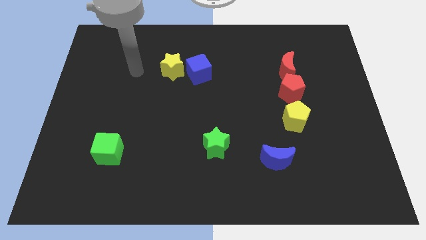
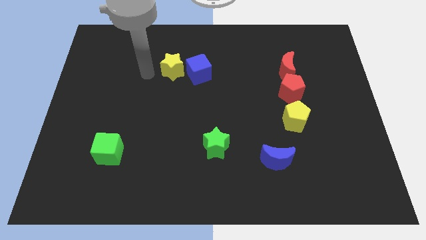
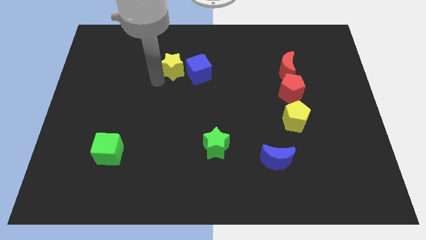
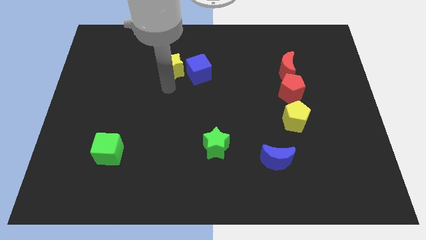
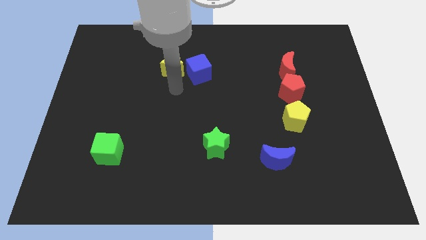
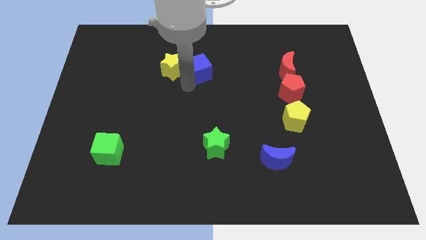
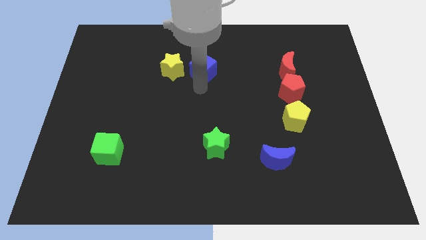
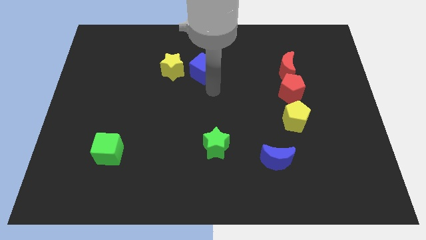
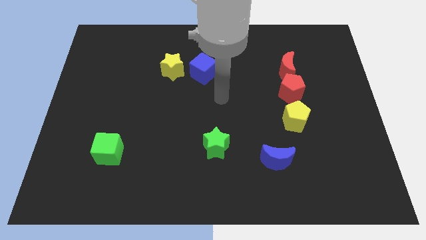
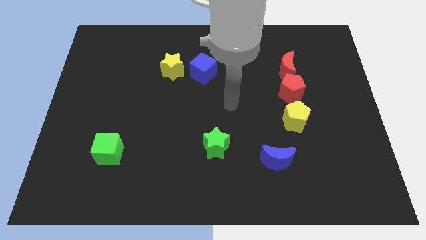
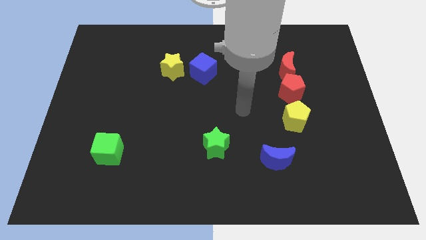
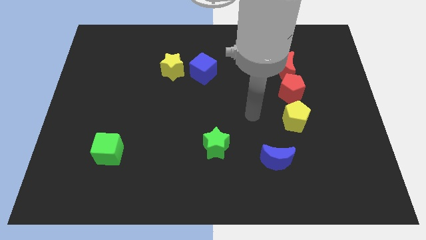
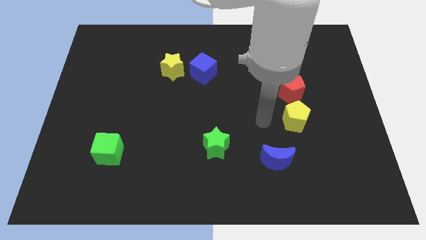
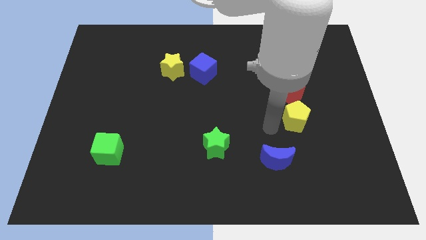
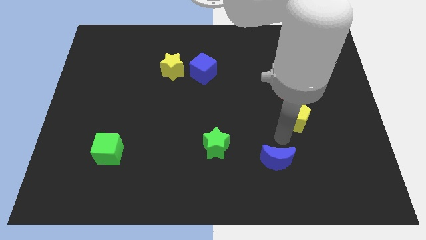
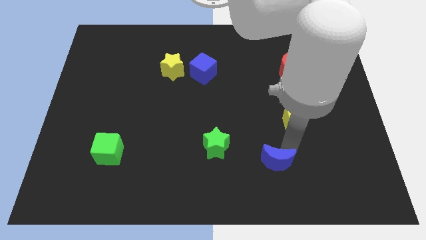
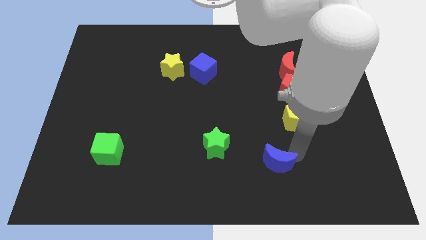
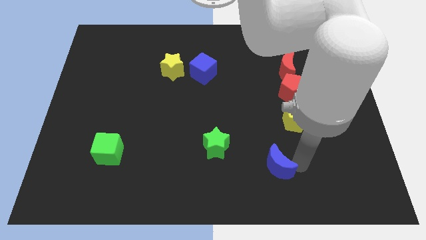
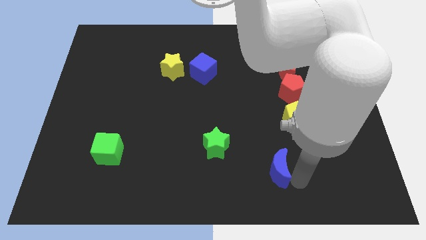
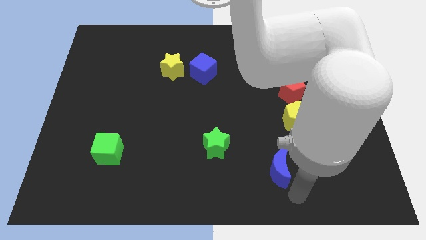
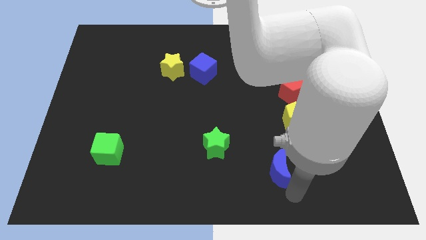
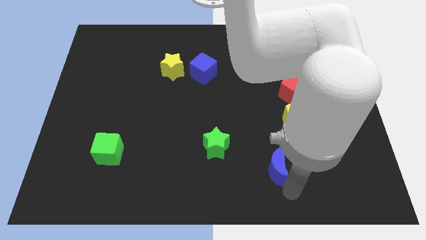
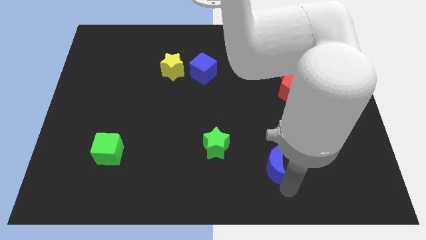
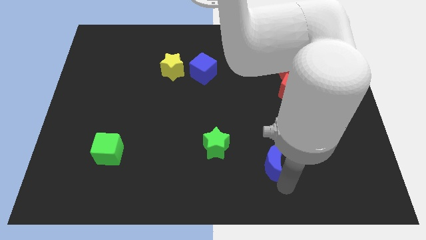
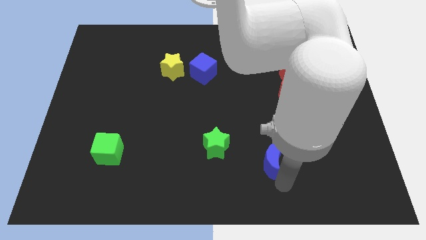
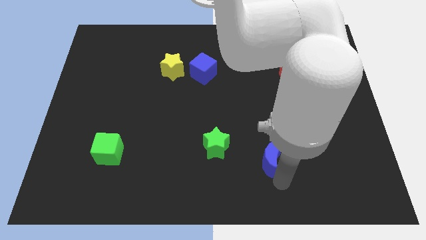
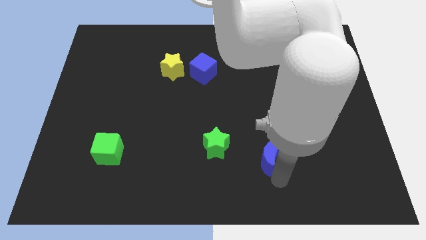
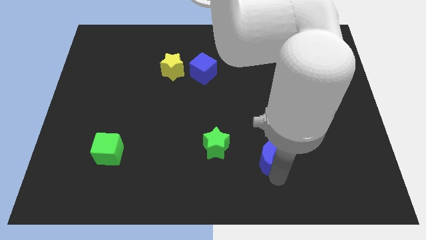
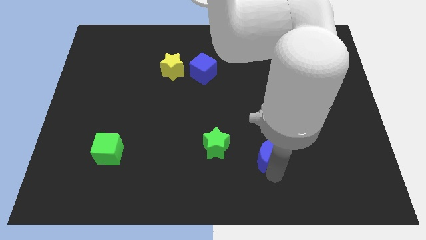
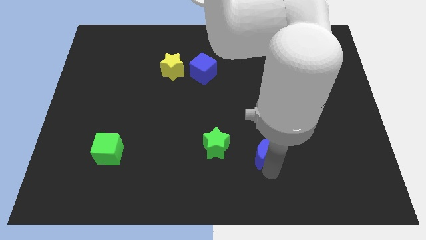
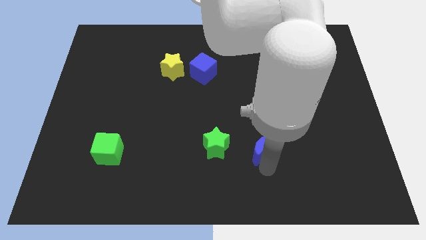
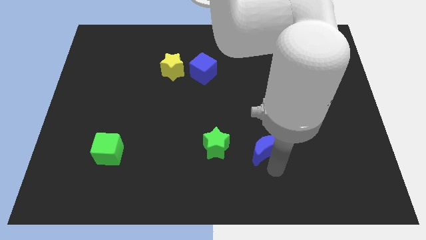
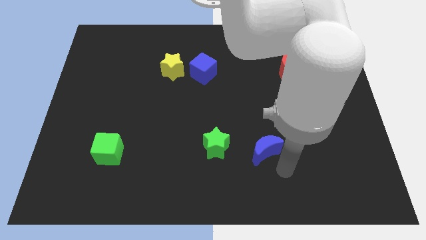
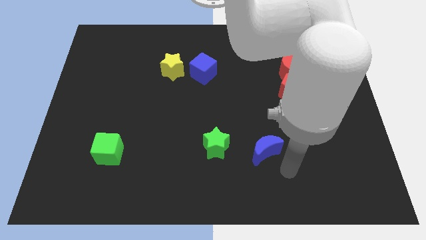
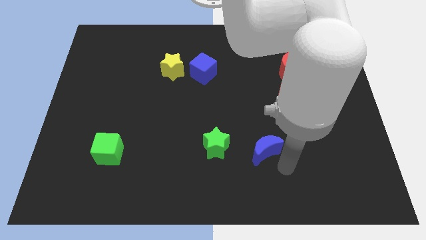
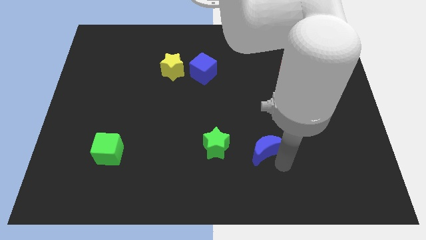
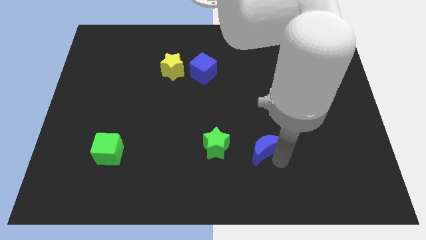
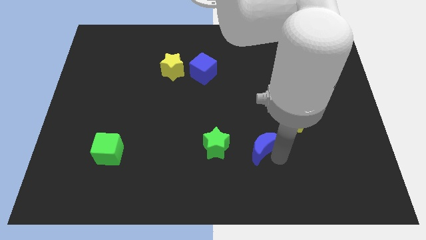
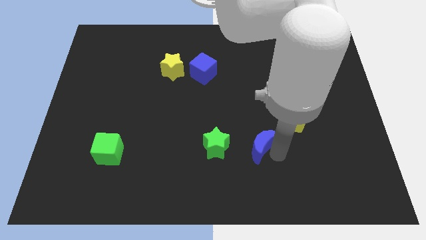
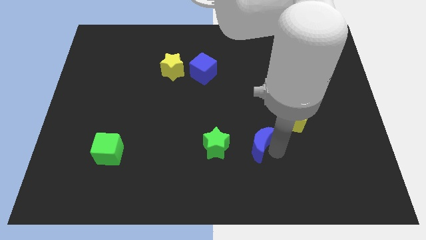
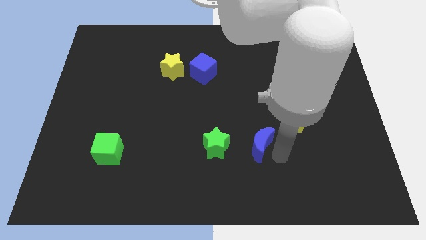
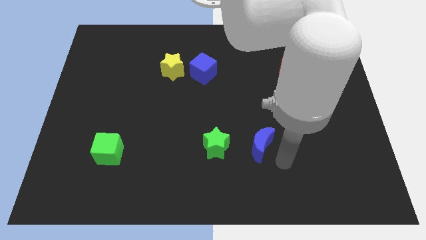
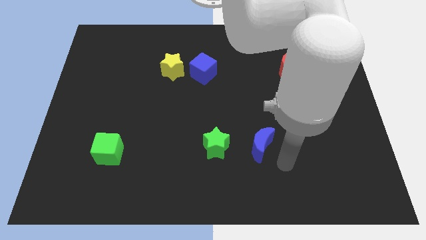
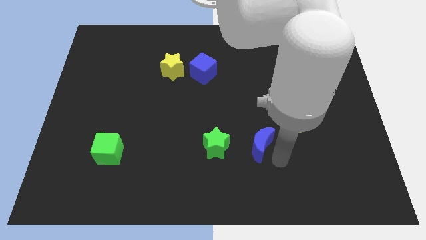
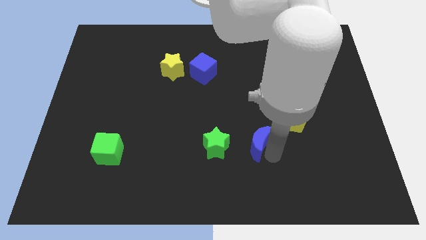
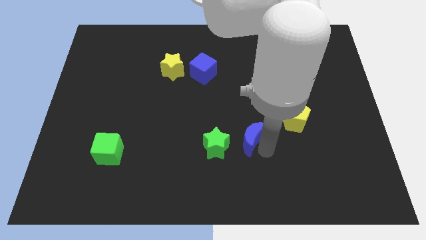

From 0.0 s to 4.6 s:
slightly move the blue moon upwards and left diagonally

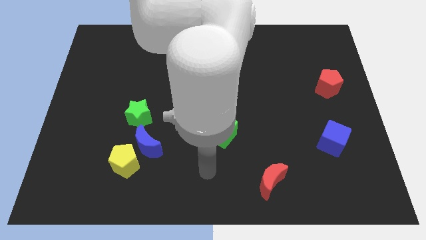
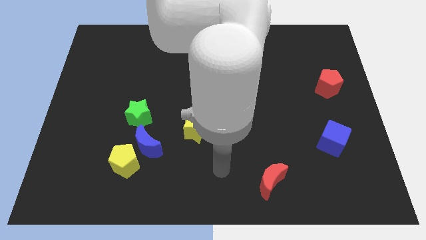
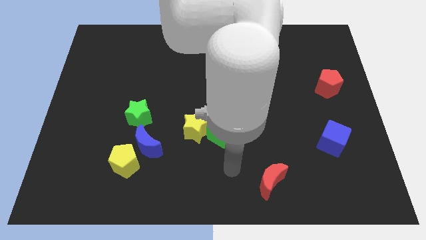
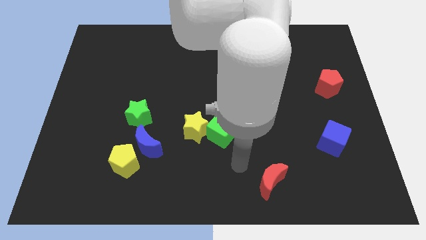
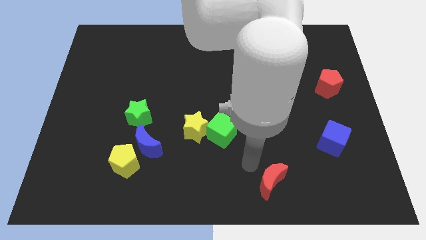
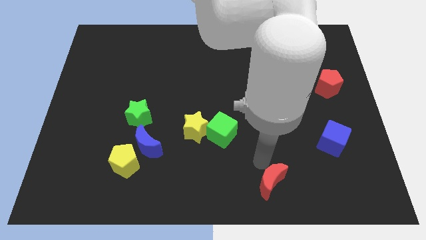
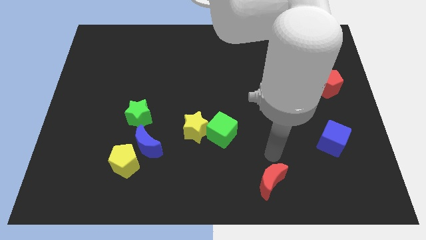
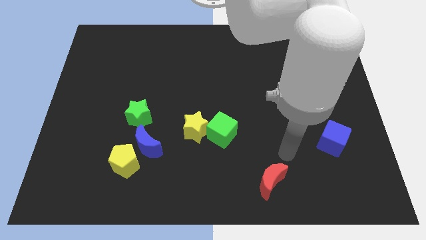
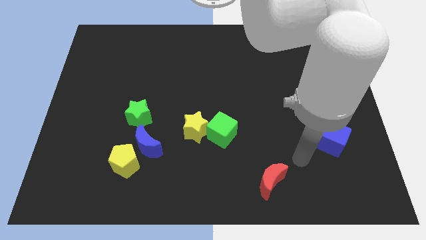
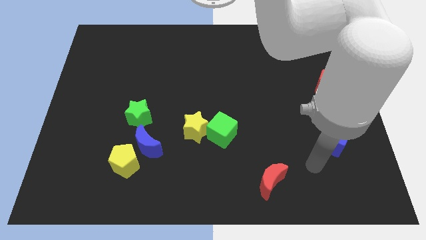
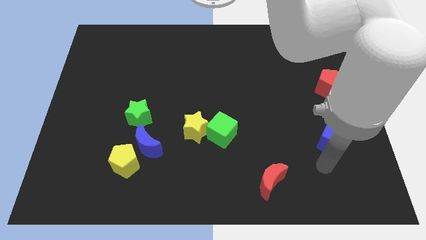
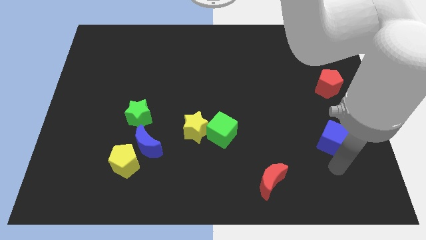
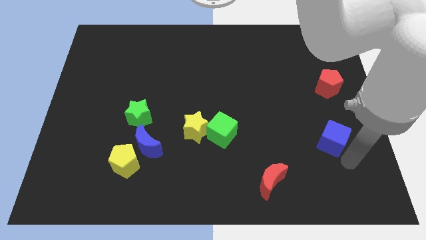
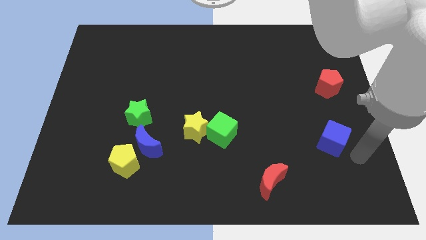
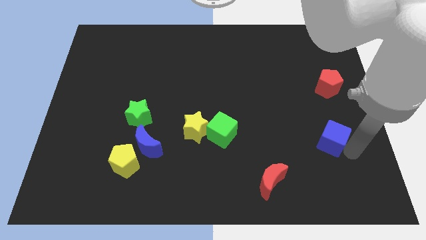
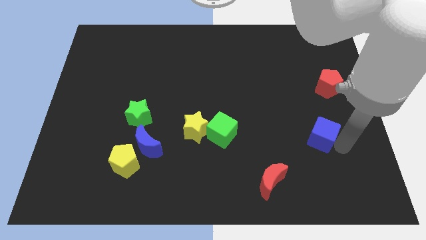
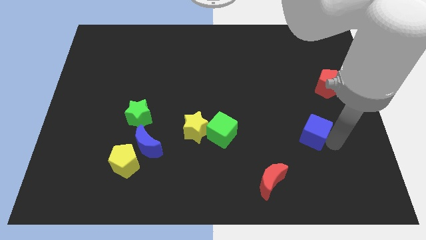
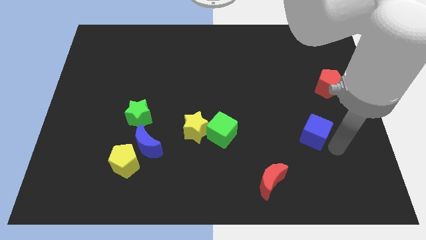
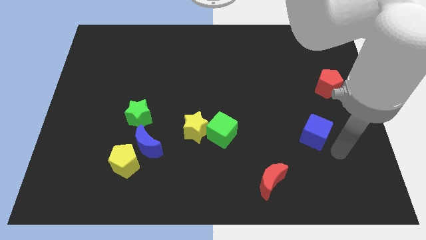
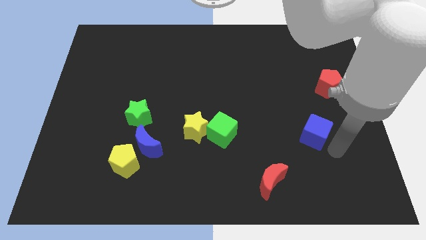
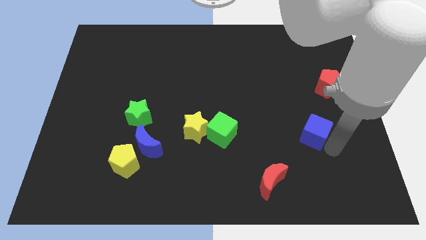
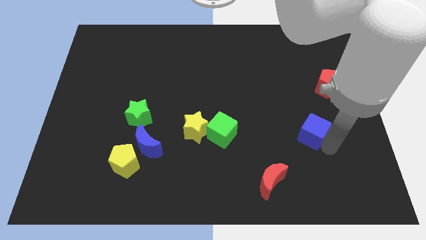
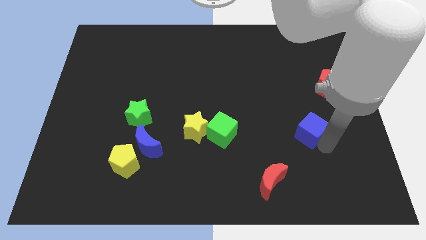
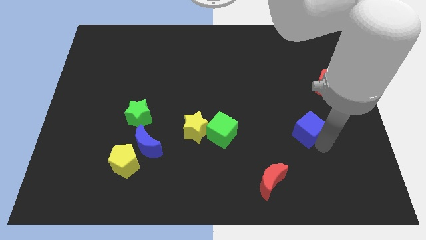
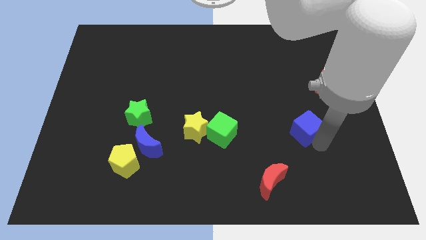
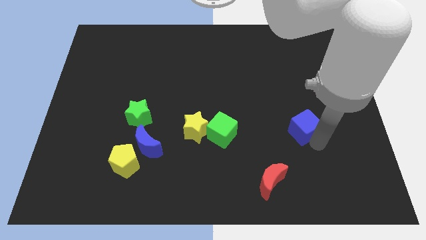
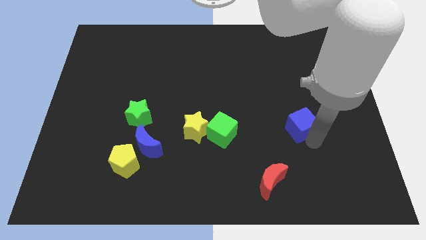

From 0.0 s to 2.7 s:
slide the blue cube a bit upwards and left

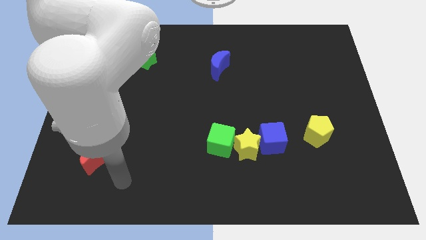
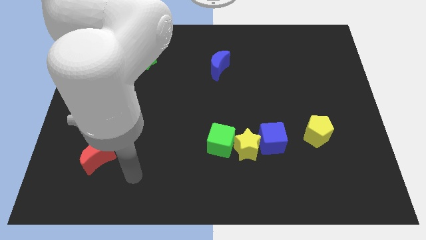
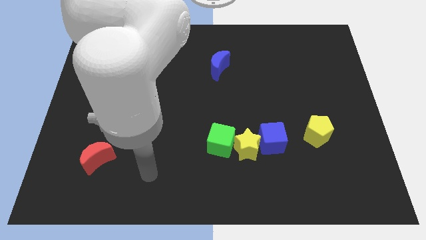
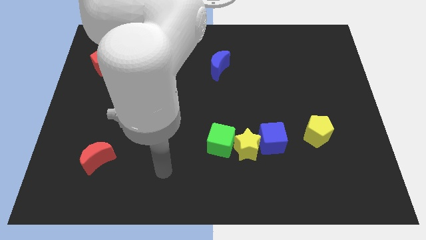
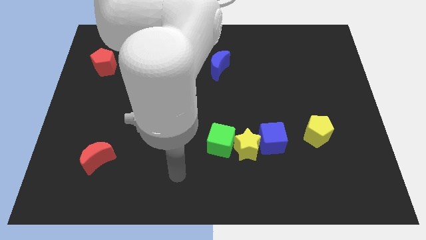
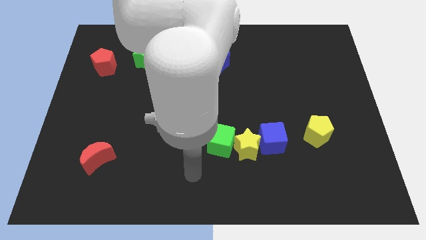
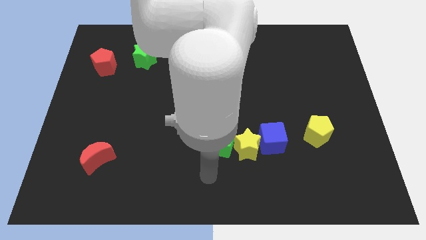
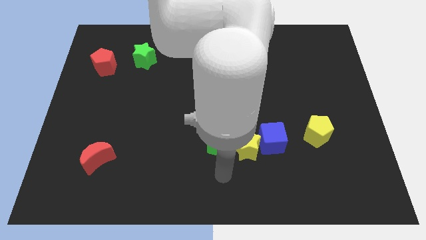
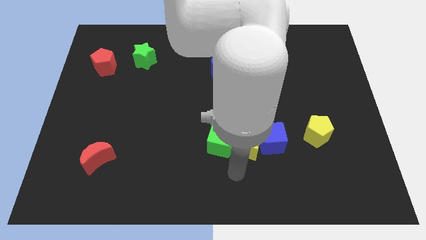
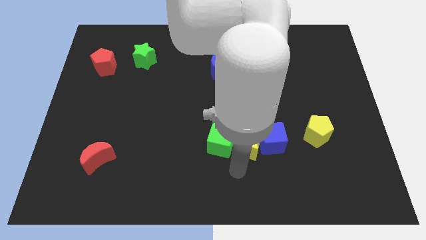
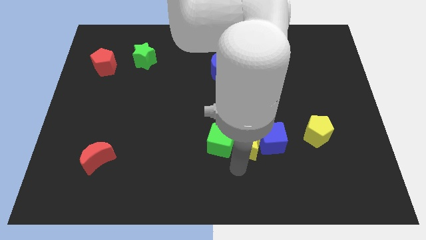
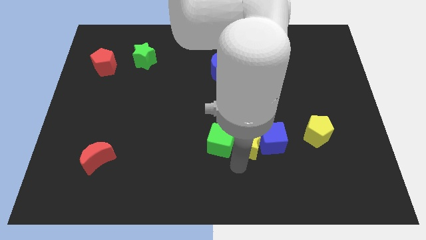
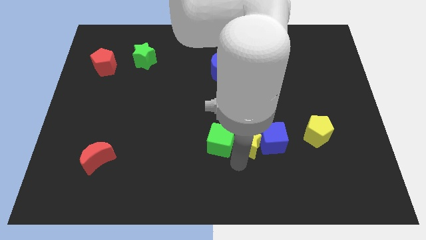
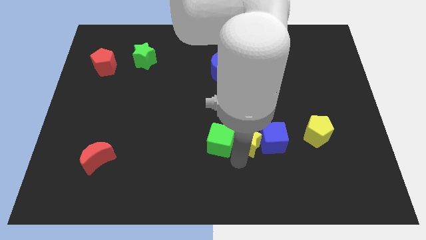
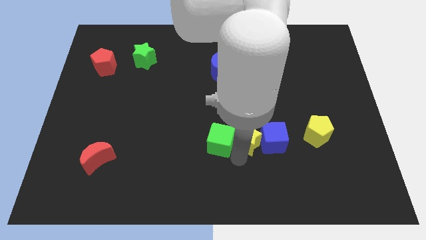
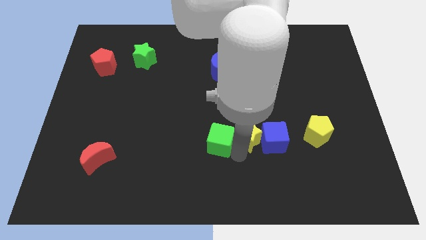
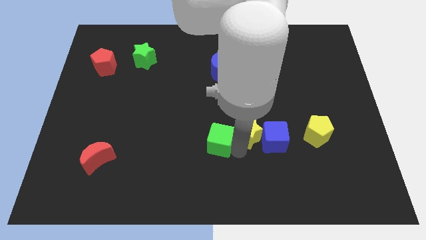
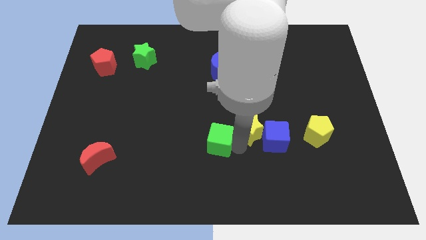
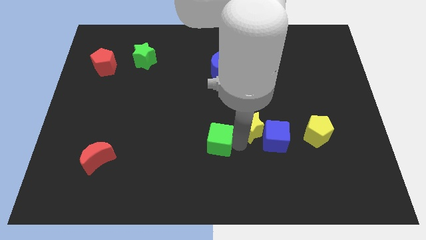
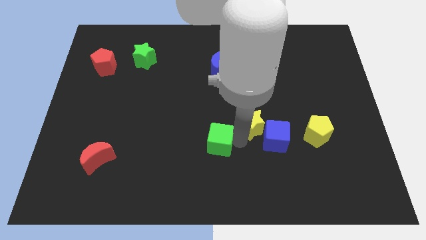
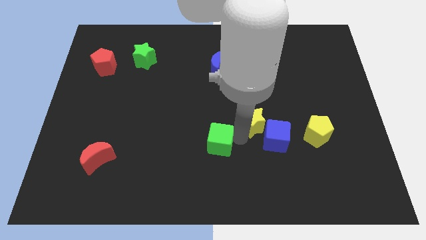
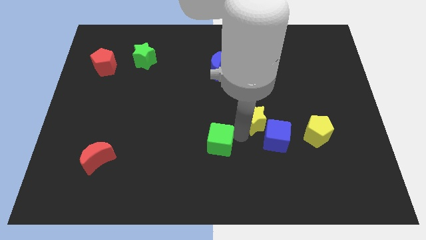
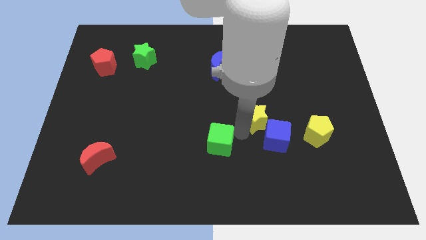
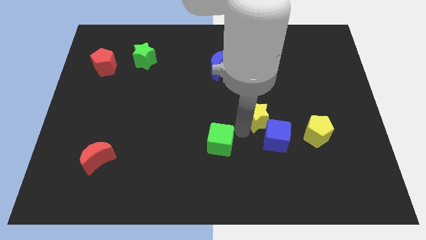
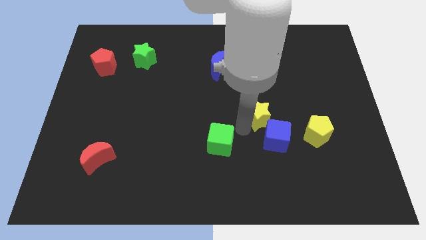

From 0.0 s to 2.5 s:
push the yellow star up and right a bit
